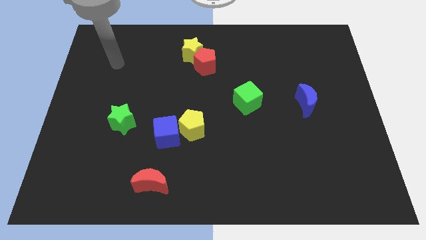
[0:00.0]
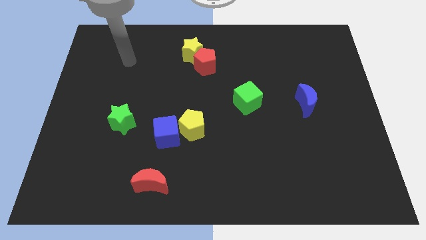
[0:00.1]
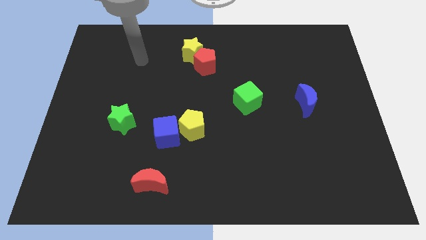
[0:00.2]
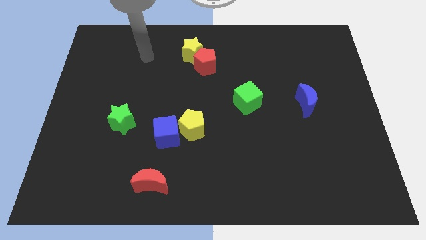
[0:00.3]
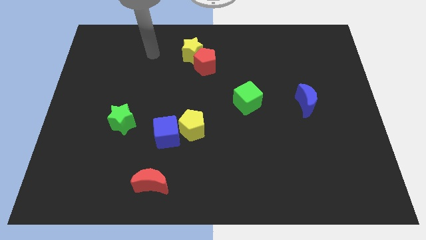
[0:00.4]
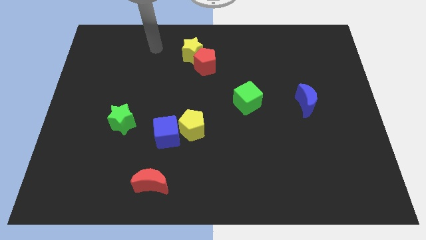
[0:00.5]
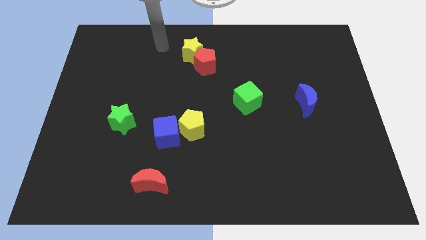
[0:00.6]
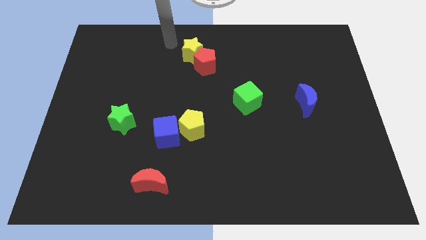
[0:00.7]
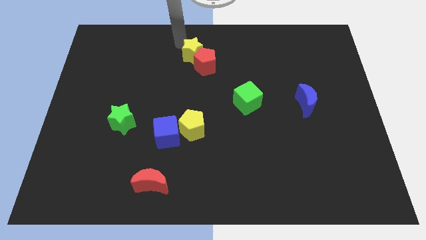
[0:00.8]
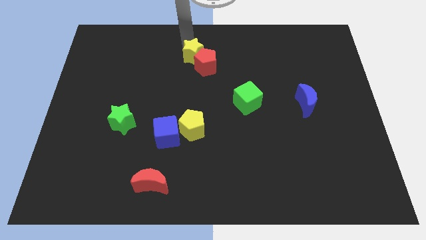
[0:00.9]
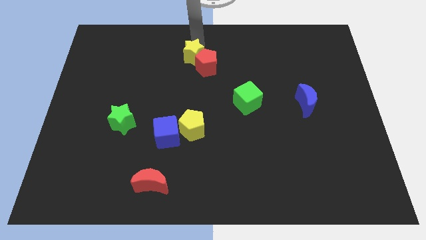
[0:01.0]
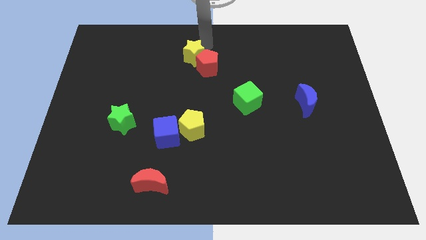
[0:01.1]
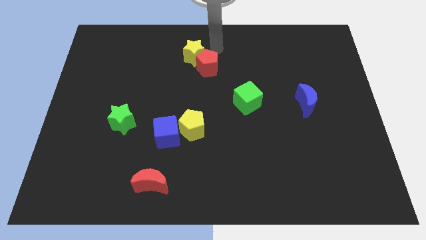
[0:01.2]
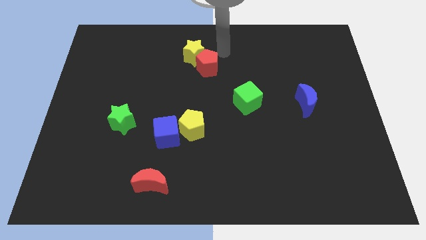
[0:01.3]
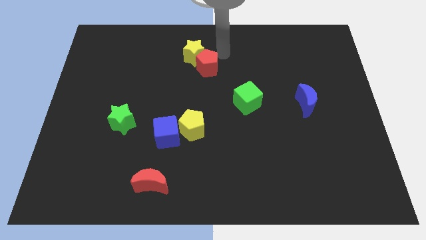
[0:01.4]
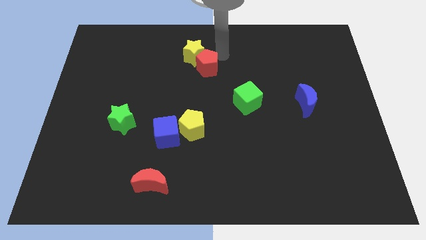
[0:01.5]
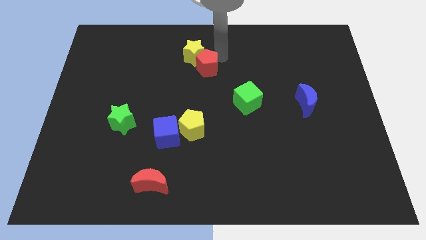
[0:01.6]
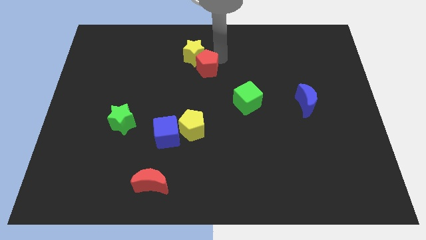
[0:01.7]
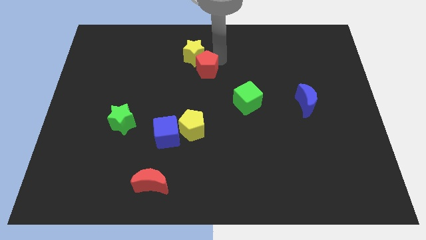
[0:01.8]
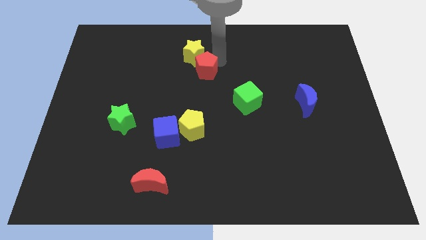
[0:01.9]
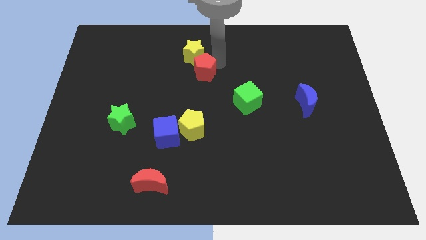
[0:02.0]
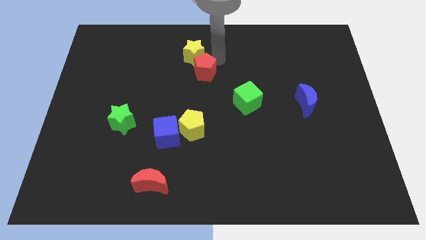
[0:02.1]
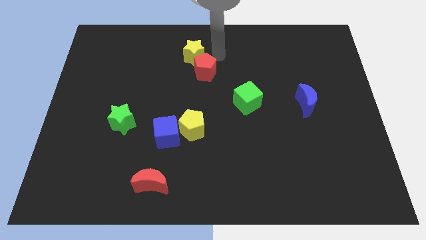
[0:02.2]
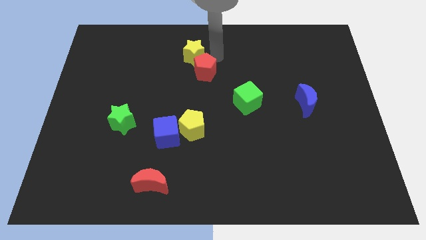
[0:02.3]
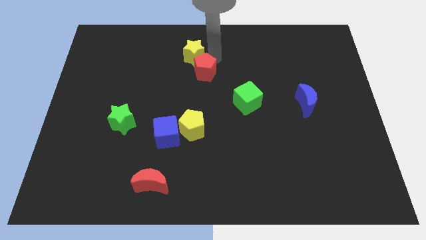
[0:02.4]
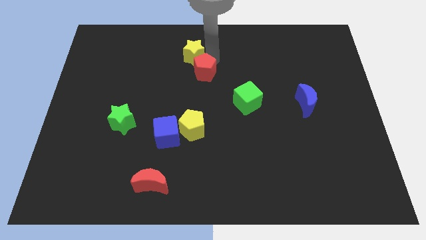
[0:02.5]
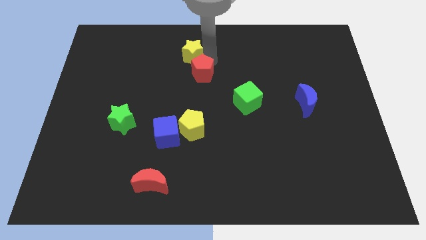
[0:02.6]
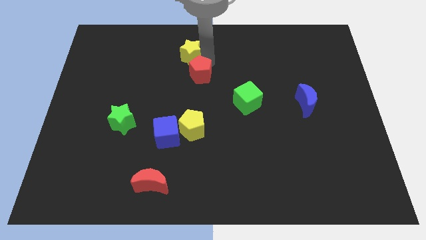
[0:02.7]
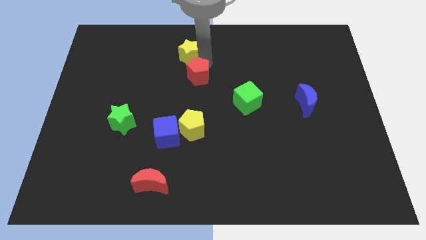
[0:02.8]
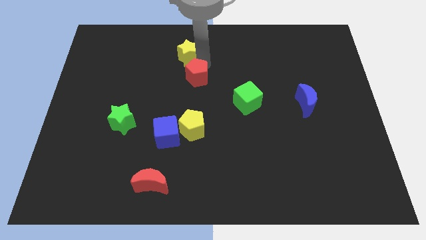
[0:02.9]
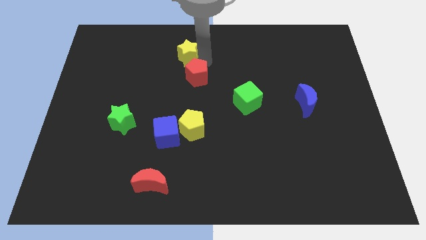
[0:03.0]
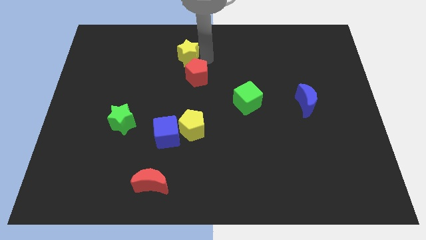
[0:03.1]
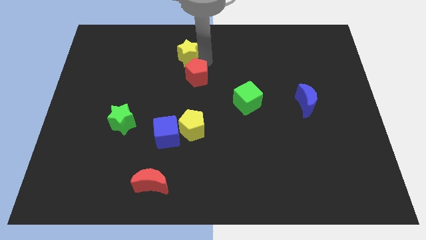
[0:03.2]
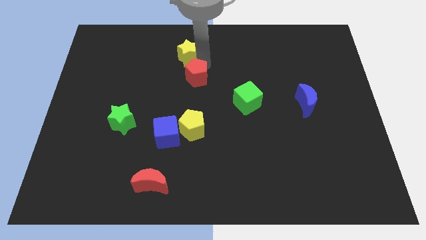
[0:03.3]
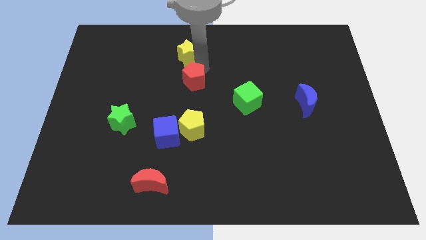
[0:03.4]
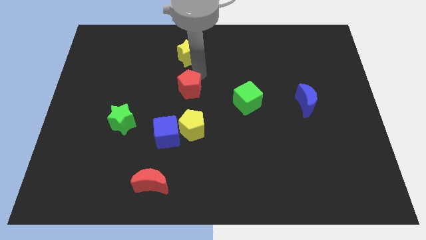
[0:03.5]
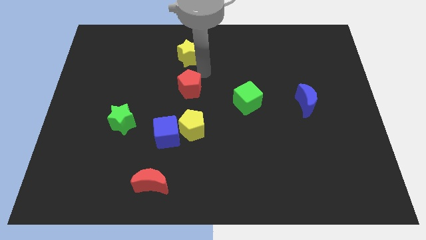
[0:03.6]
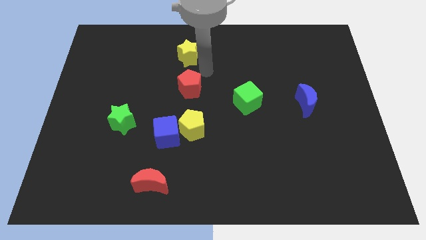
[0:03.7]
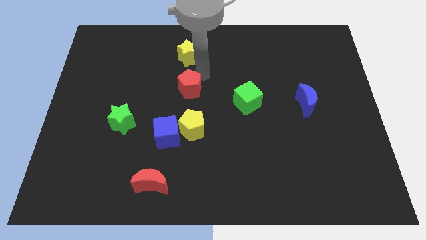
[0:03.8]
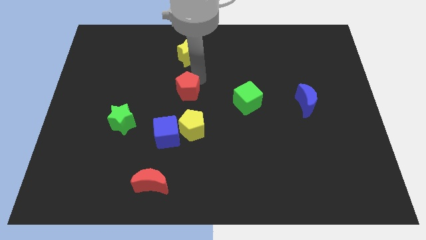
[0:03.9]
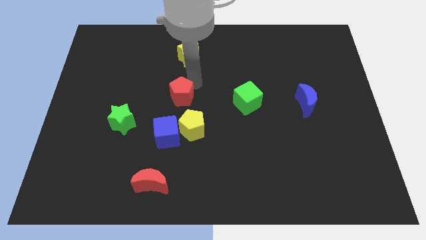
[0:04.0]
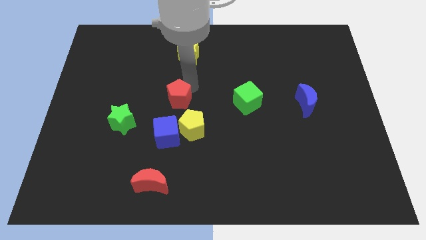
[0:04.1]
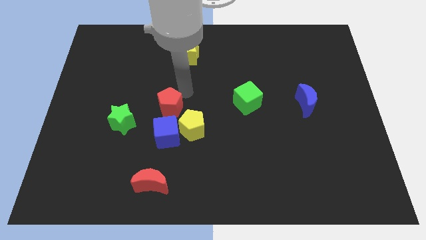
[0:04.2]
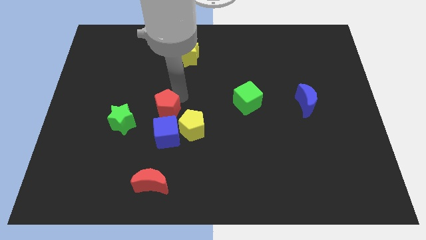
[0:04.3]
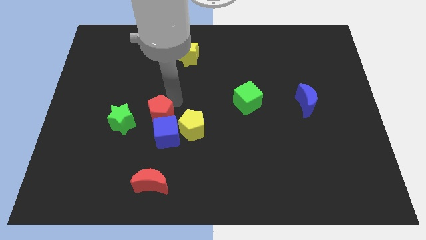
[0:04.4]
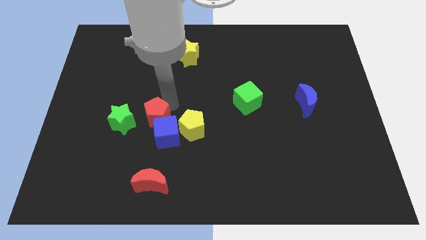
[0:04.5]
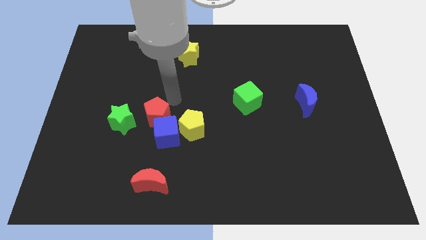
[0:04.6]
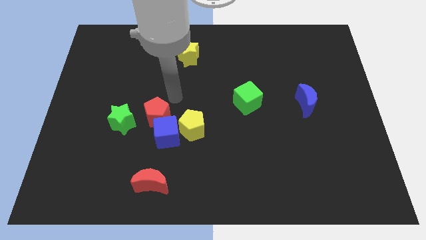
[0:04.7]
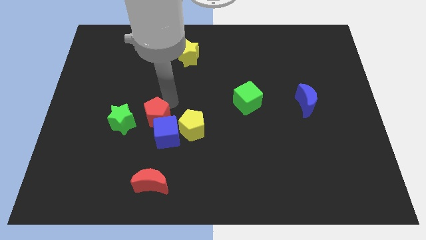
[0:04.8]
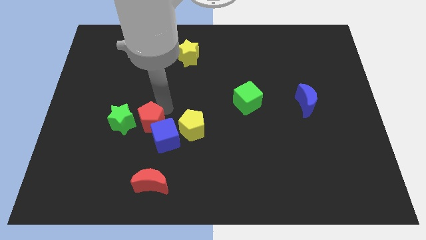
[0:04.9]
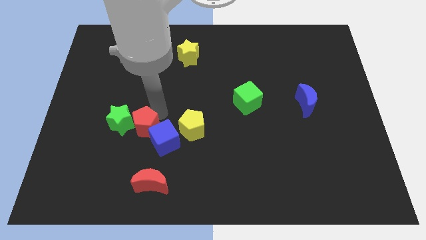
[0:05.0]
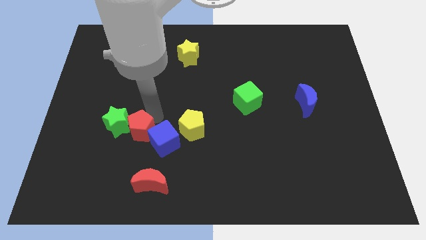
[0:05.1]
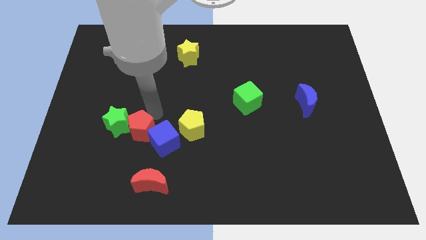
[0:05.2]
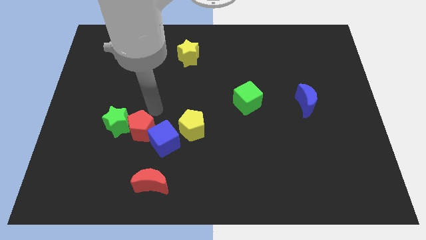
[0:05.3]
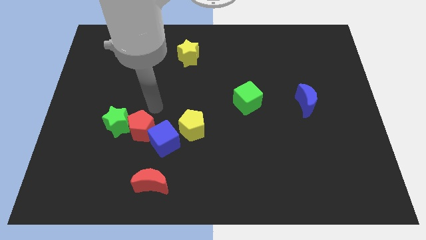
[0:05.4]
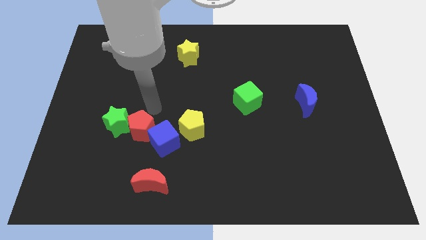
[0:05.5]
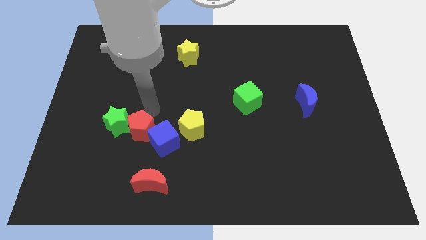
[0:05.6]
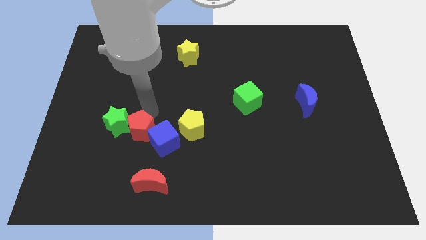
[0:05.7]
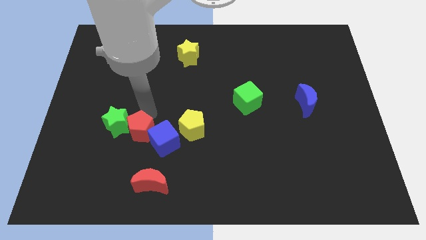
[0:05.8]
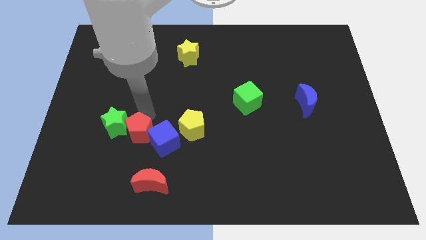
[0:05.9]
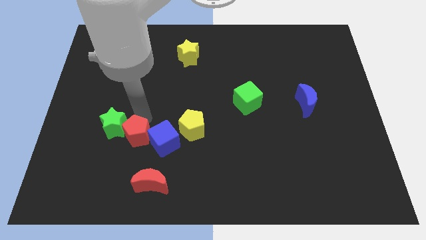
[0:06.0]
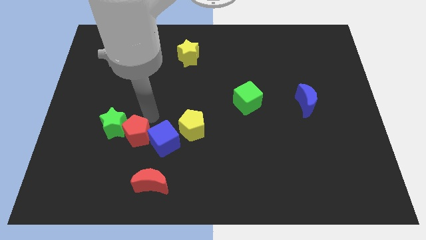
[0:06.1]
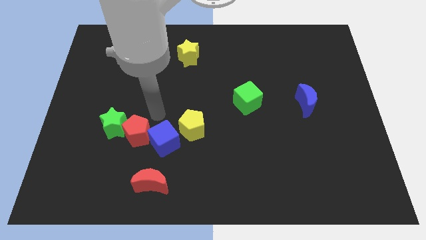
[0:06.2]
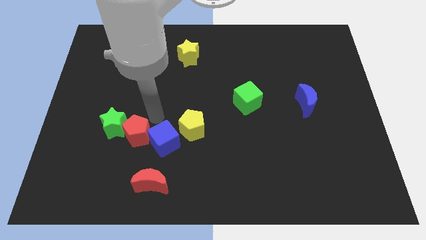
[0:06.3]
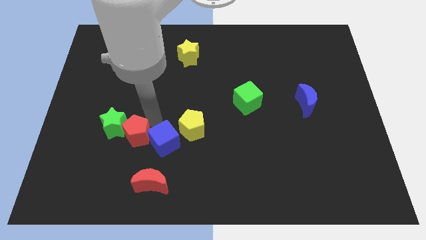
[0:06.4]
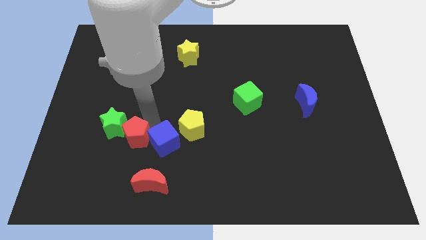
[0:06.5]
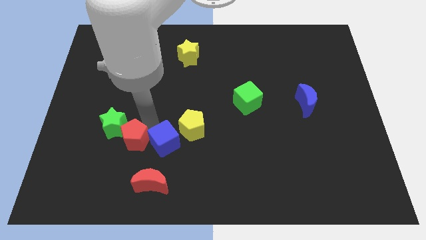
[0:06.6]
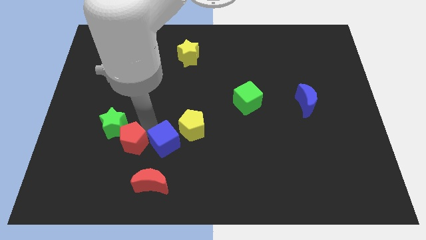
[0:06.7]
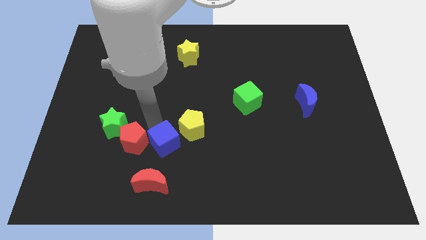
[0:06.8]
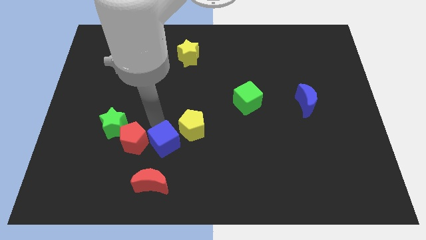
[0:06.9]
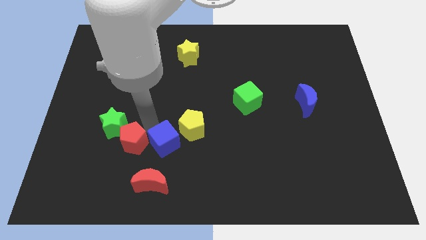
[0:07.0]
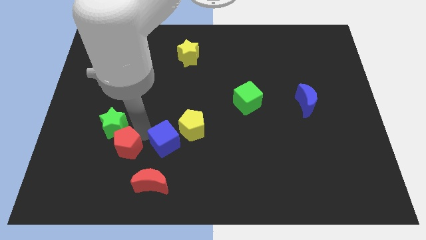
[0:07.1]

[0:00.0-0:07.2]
put the red pentagon to the bottom side of the green star
